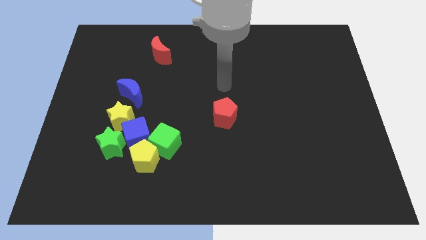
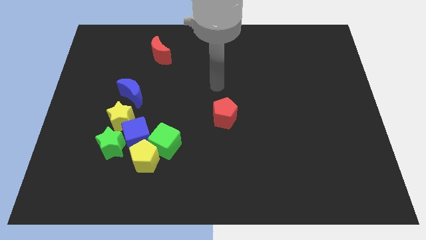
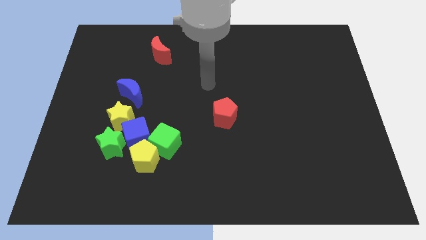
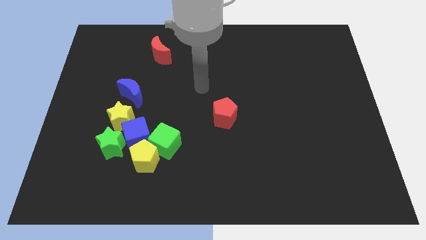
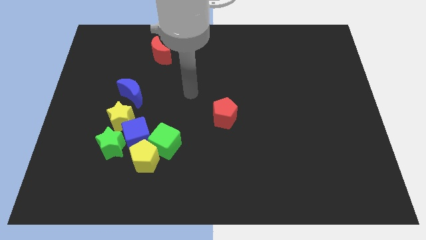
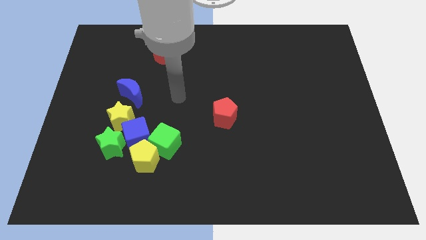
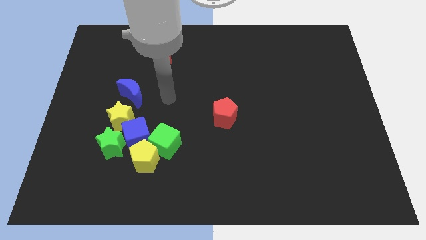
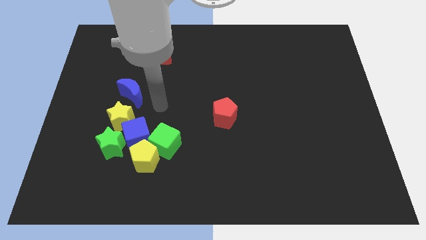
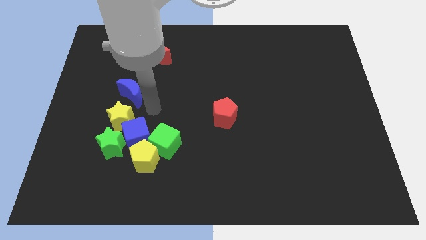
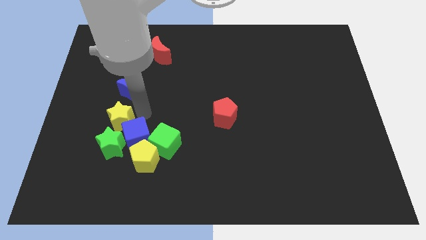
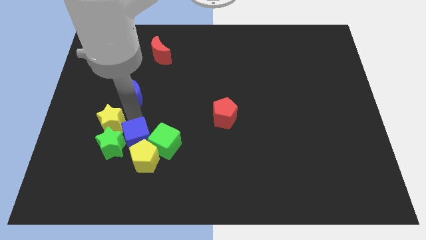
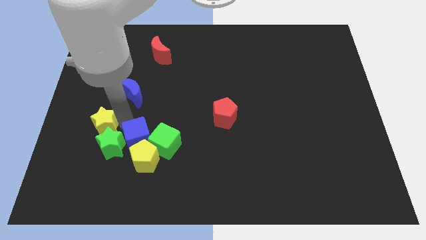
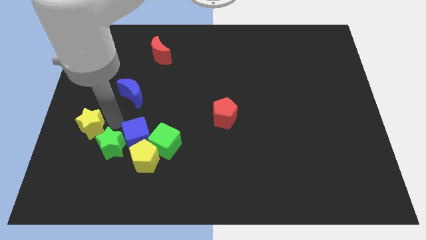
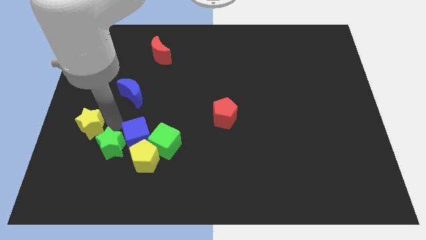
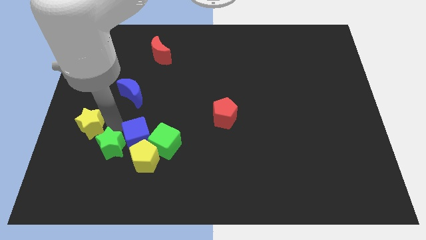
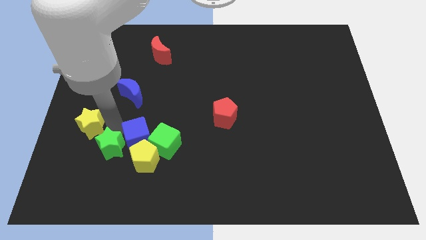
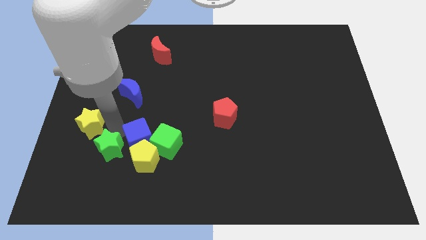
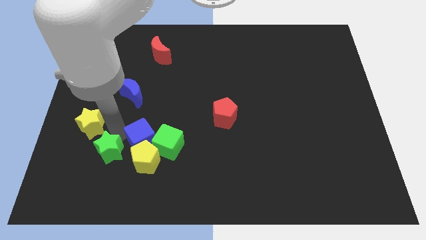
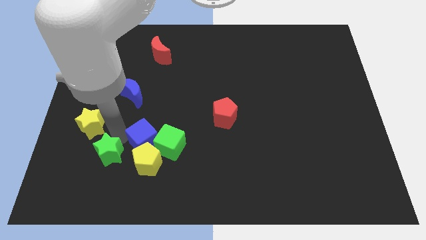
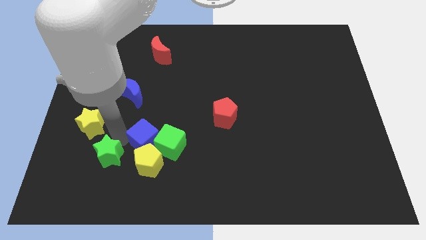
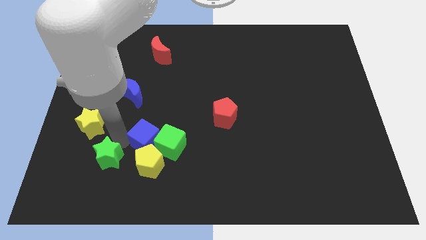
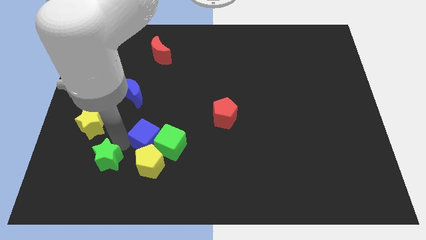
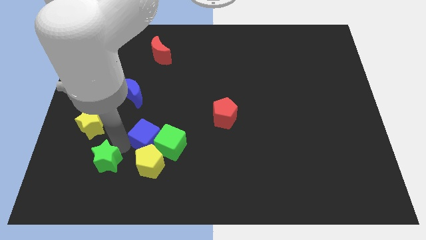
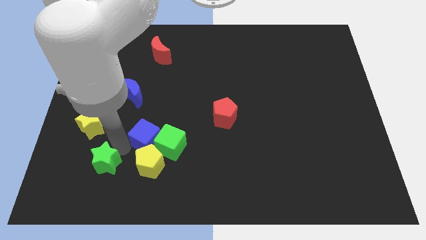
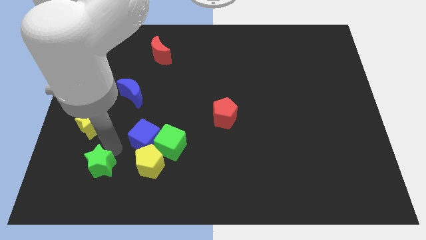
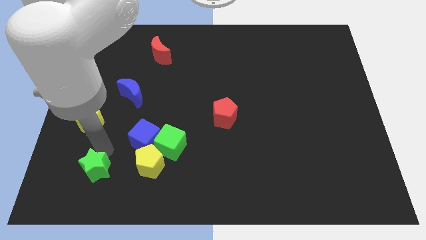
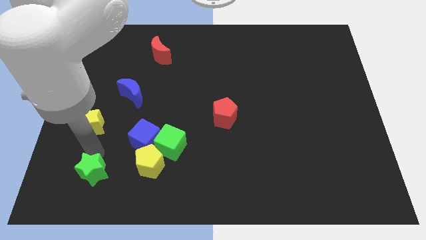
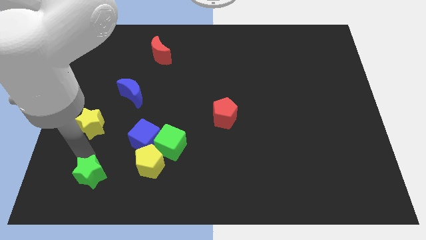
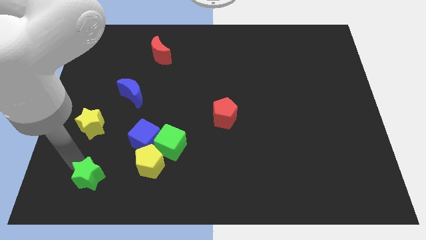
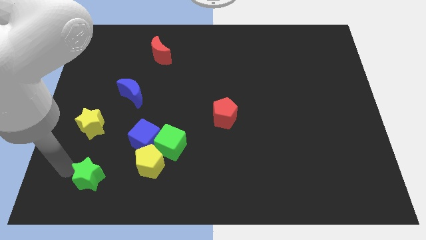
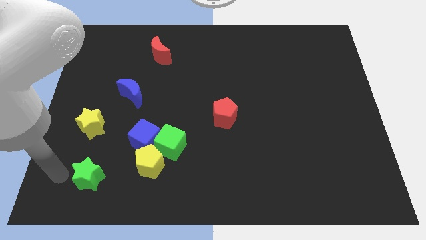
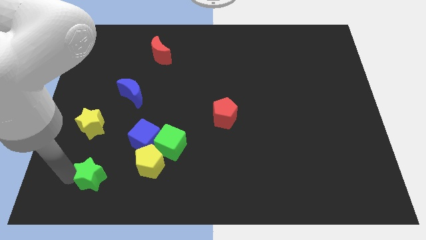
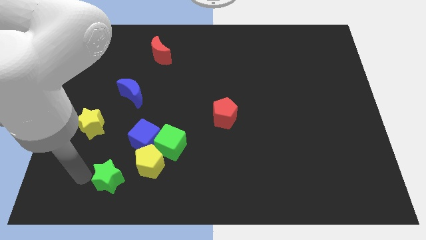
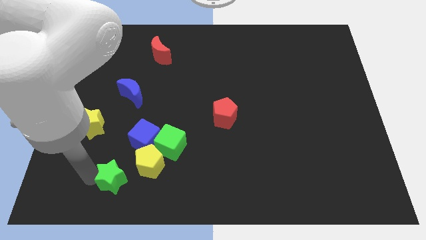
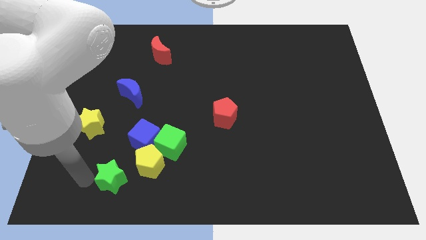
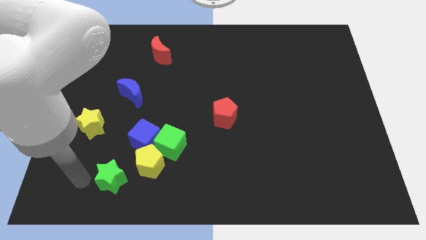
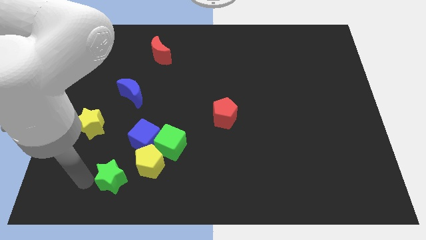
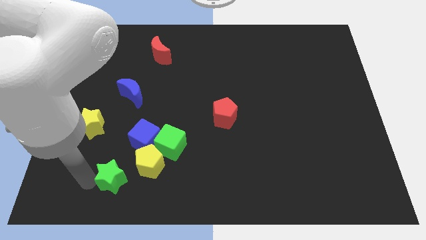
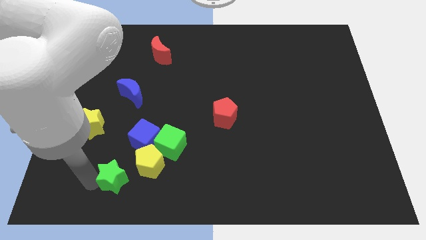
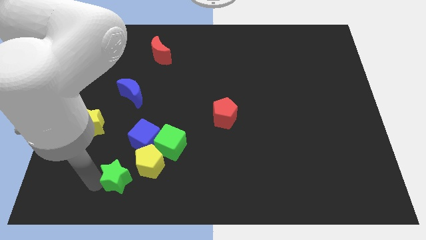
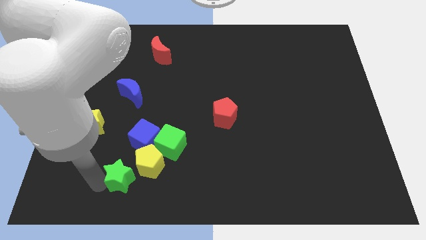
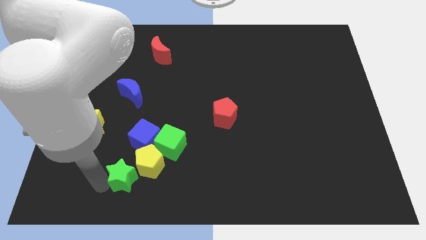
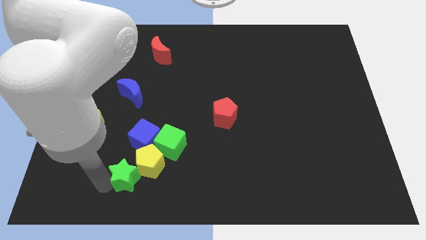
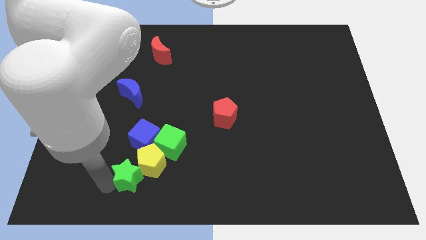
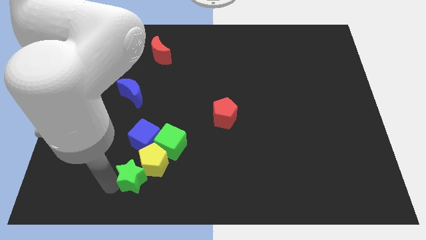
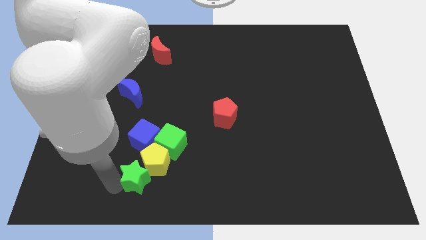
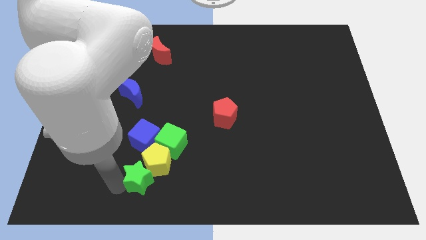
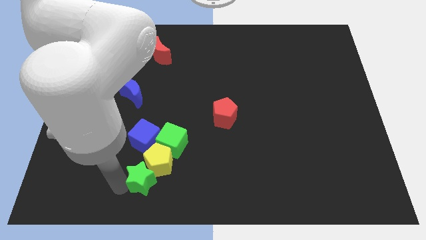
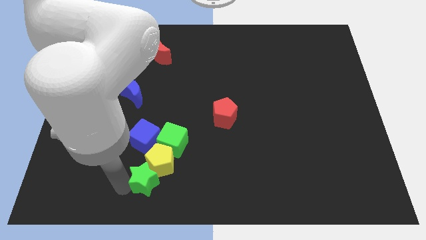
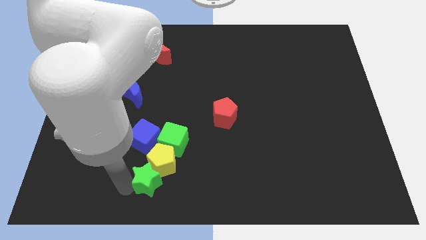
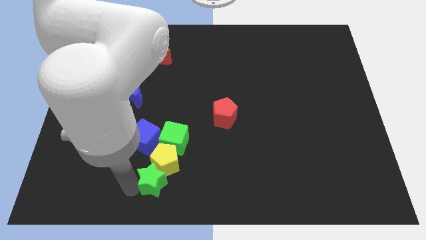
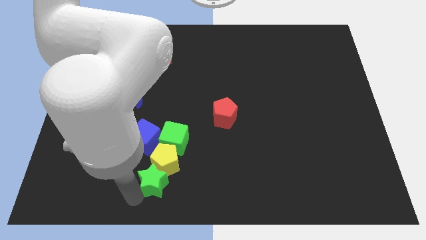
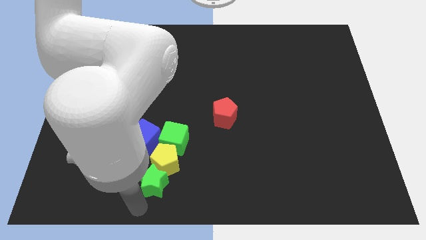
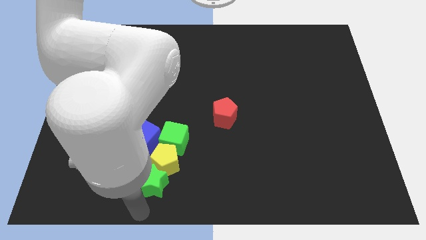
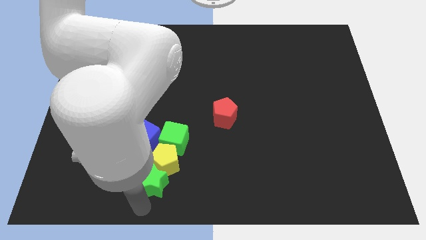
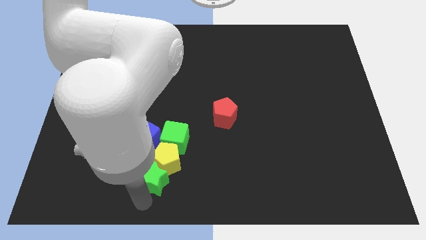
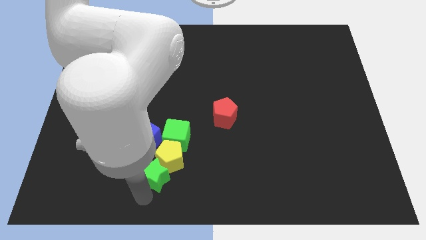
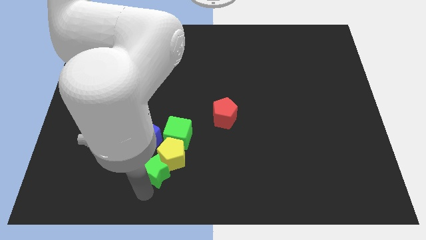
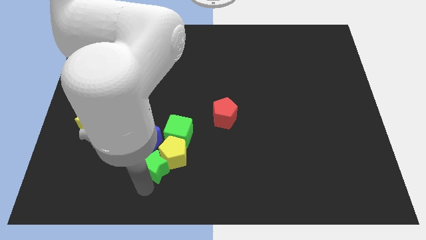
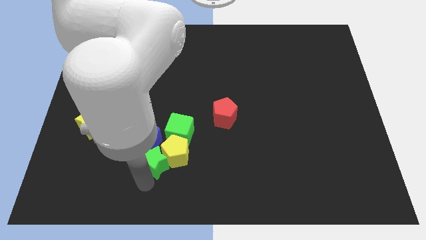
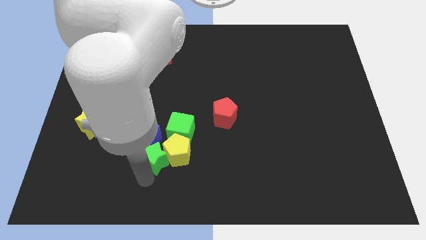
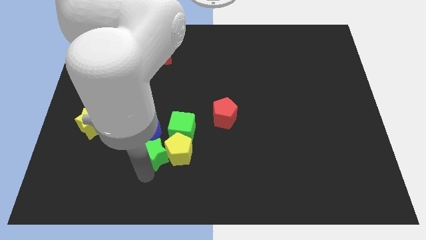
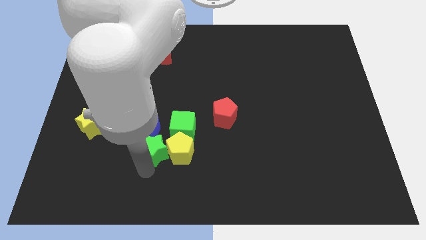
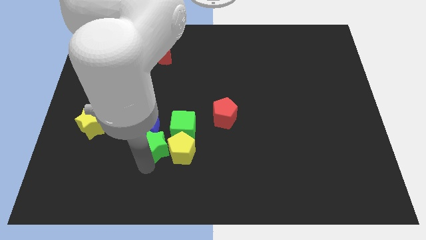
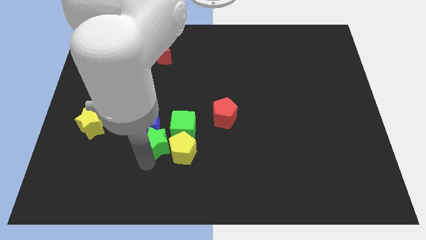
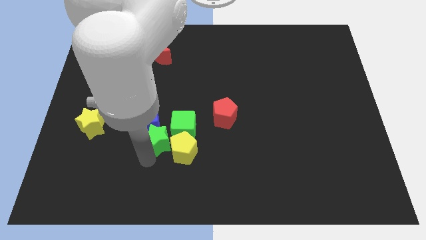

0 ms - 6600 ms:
put the green star towards the green cube
